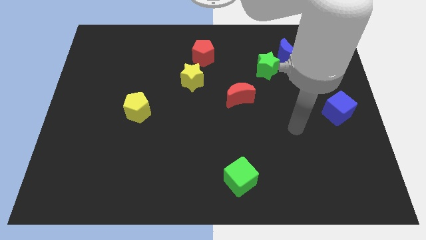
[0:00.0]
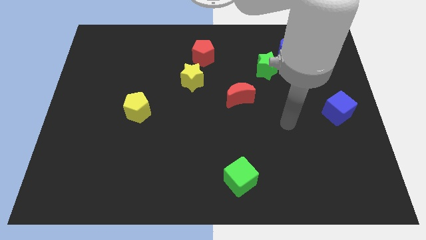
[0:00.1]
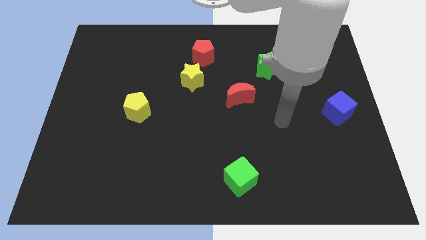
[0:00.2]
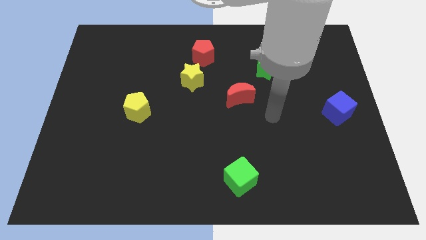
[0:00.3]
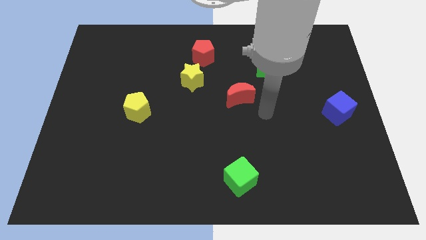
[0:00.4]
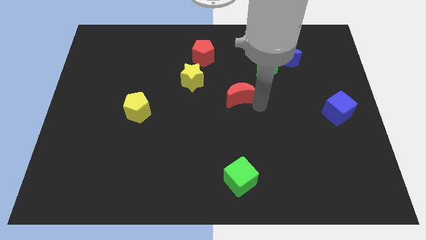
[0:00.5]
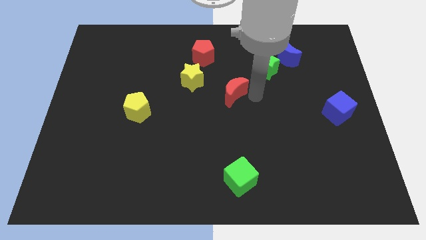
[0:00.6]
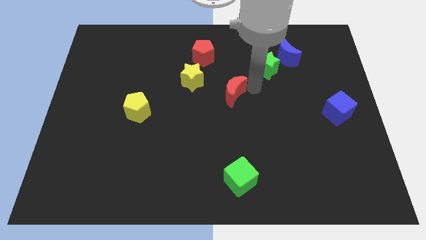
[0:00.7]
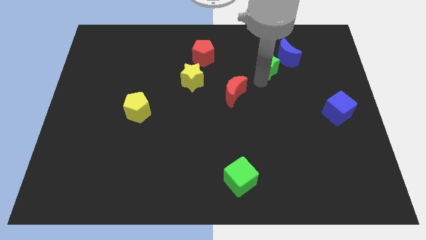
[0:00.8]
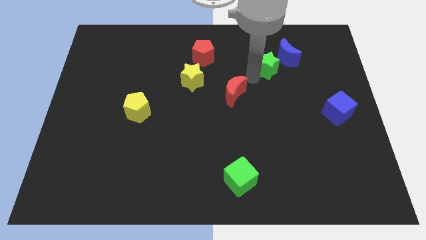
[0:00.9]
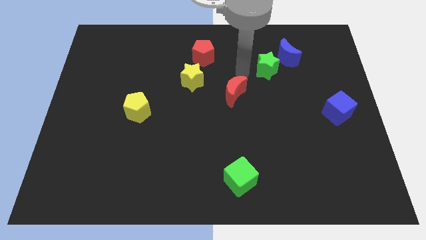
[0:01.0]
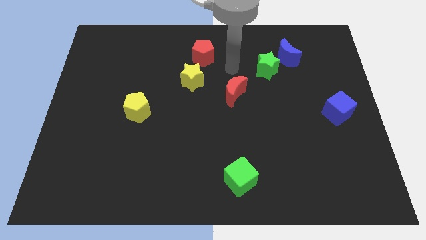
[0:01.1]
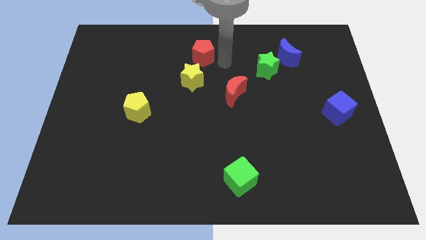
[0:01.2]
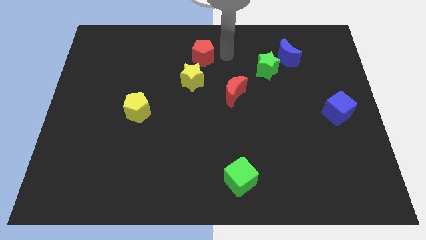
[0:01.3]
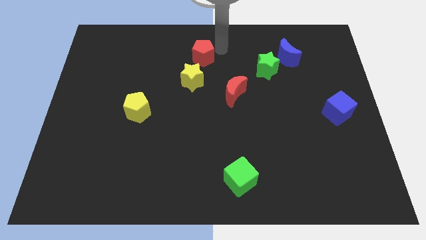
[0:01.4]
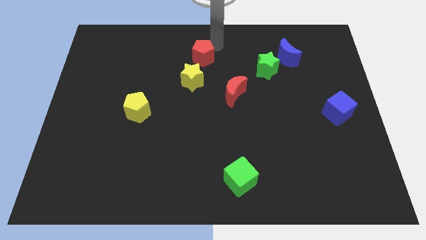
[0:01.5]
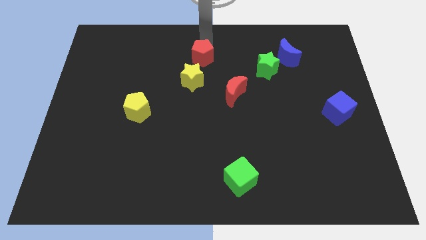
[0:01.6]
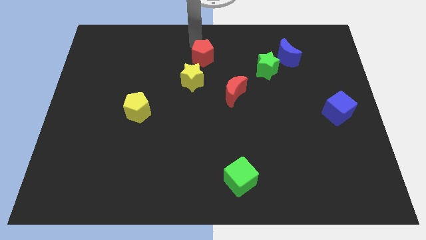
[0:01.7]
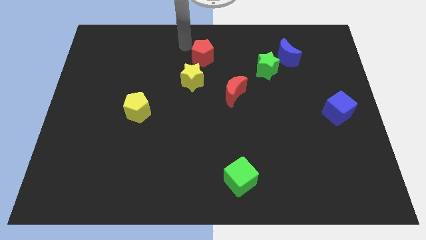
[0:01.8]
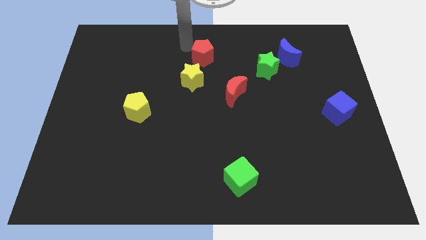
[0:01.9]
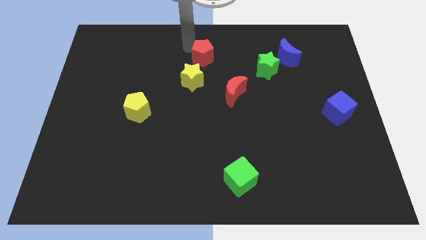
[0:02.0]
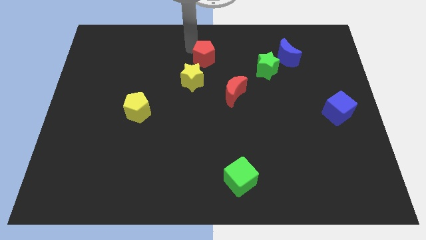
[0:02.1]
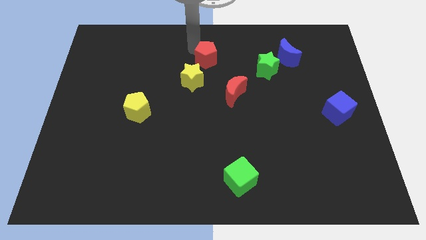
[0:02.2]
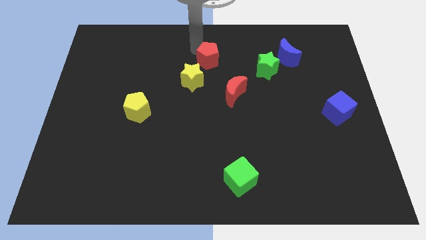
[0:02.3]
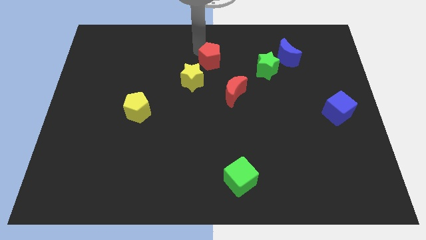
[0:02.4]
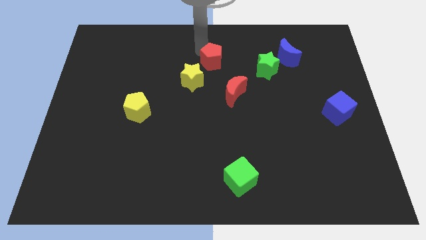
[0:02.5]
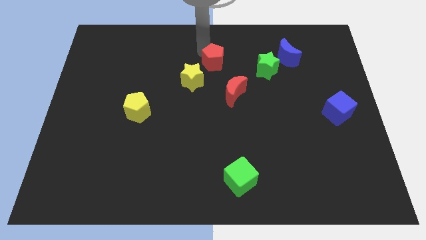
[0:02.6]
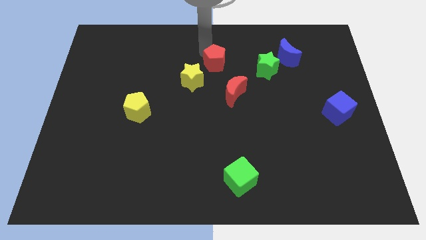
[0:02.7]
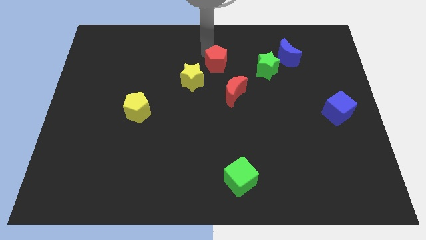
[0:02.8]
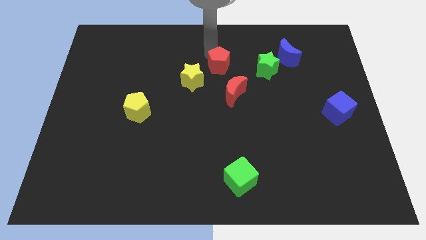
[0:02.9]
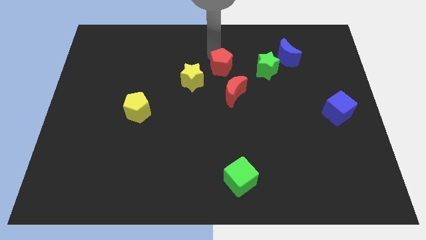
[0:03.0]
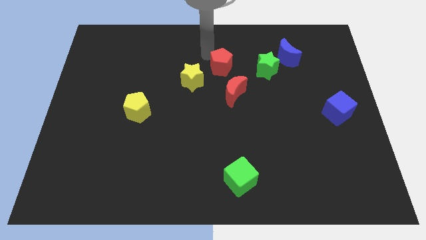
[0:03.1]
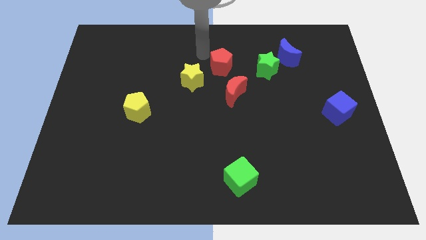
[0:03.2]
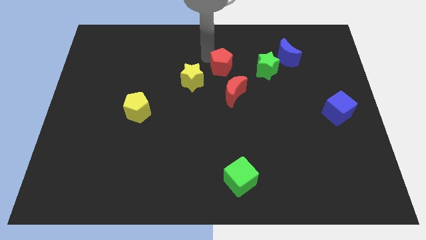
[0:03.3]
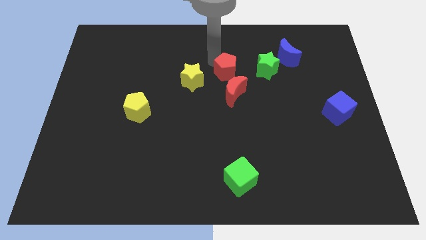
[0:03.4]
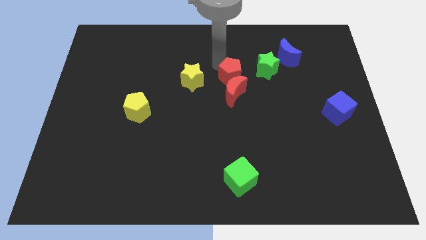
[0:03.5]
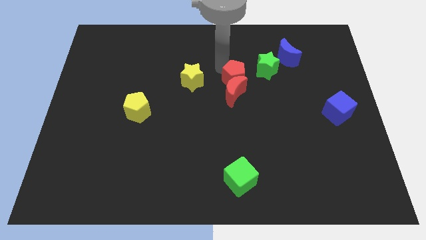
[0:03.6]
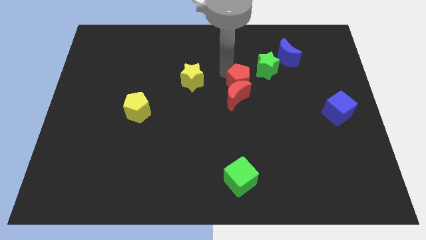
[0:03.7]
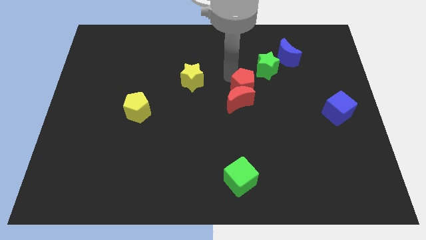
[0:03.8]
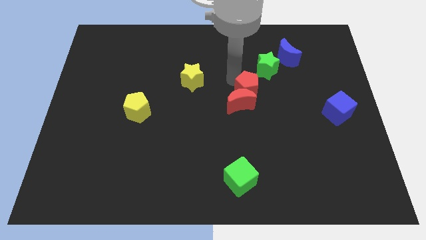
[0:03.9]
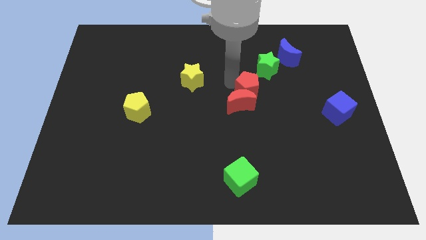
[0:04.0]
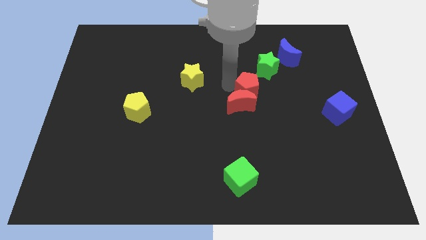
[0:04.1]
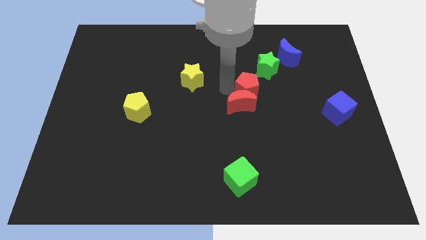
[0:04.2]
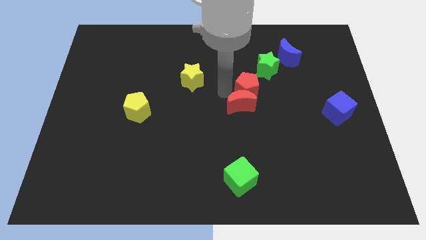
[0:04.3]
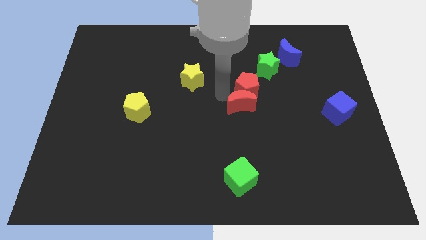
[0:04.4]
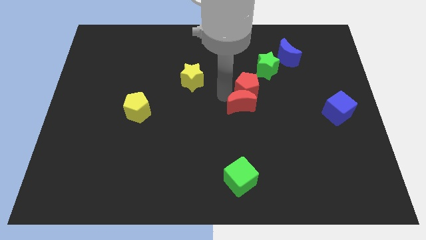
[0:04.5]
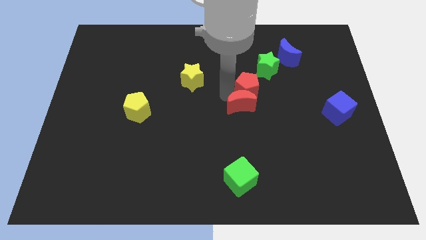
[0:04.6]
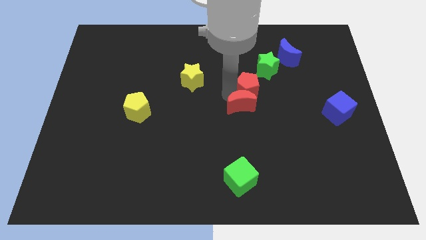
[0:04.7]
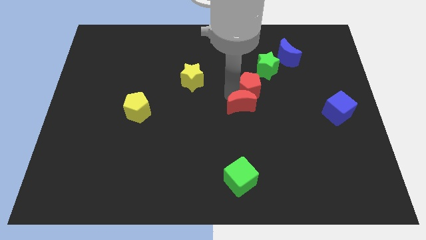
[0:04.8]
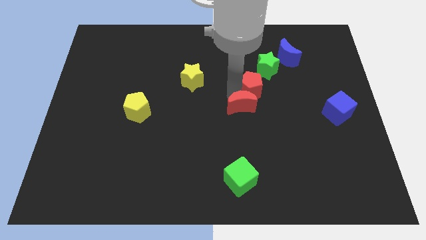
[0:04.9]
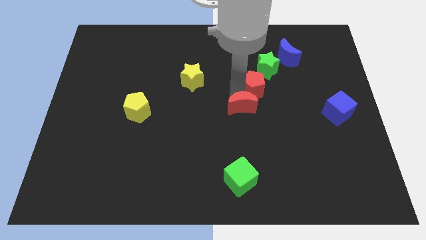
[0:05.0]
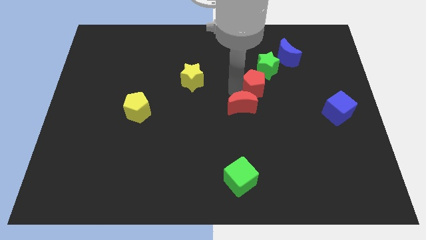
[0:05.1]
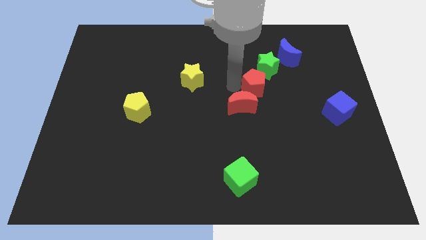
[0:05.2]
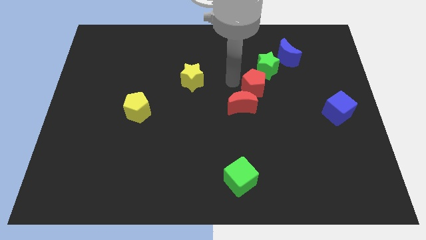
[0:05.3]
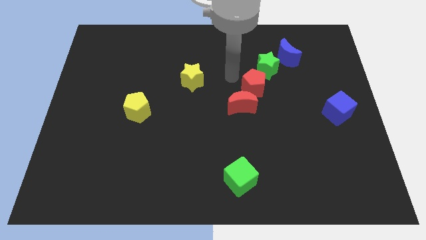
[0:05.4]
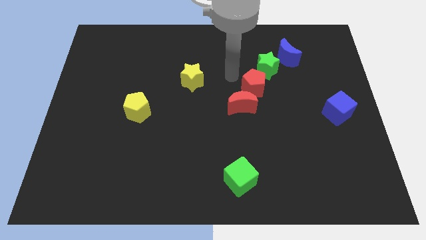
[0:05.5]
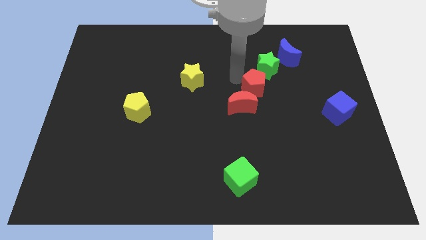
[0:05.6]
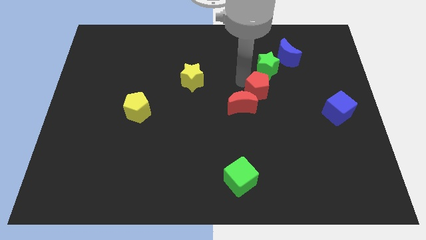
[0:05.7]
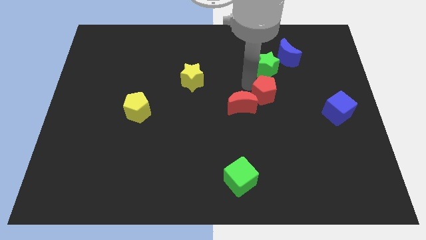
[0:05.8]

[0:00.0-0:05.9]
slide the red pentagon down and right

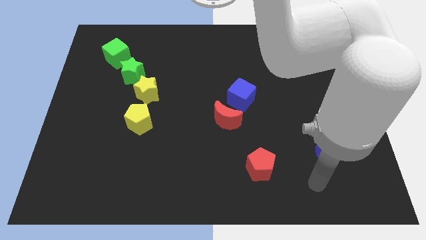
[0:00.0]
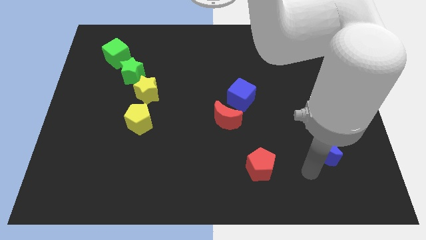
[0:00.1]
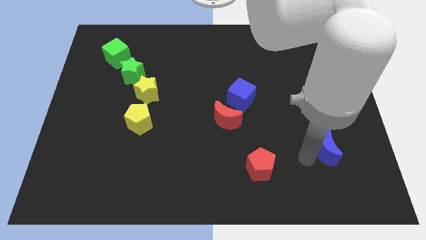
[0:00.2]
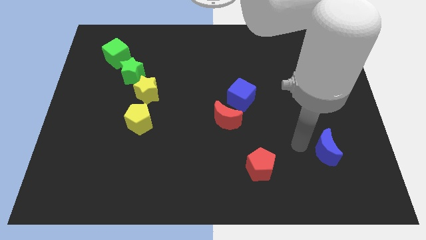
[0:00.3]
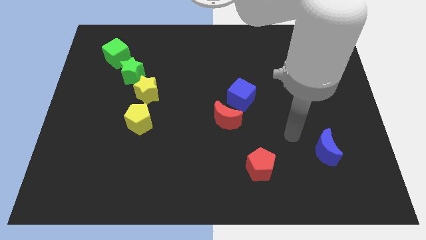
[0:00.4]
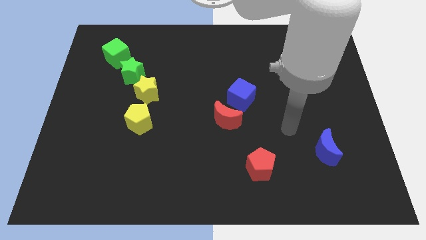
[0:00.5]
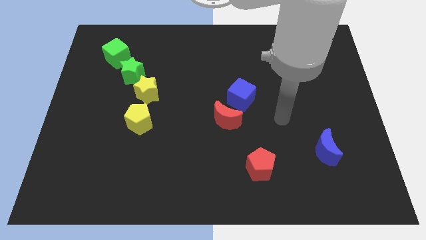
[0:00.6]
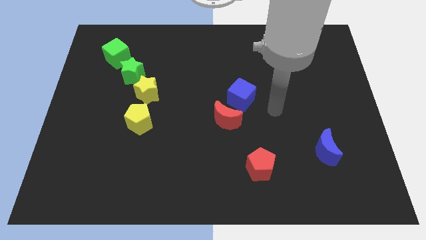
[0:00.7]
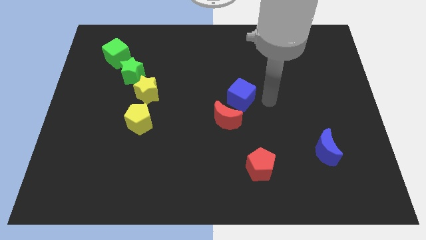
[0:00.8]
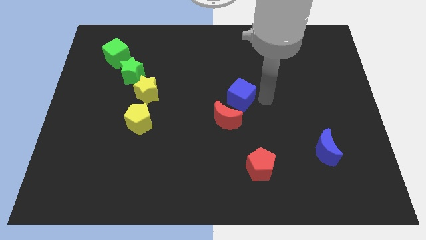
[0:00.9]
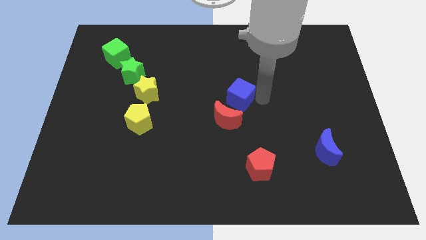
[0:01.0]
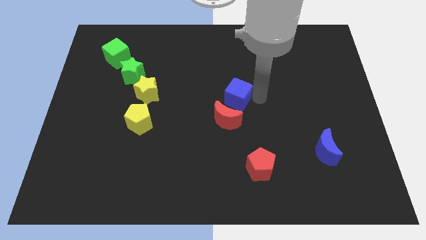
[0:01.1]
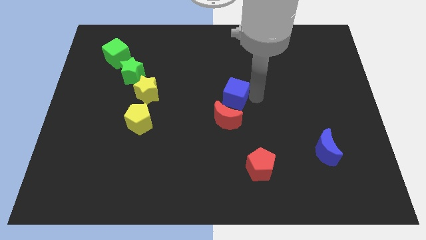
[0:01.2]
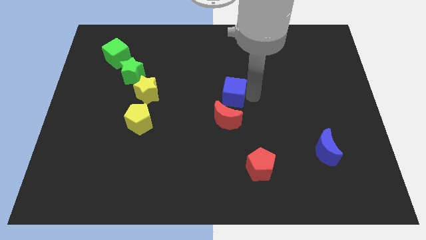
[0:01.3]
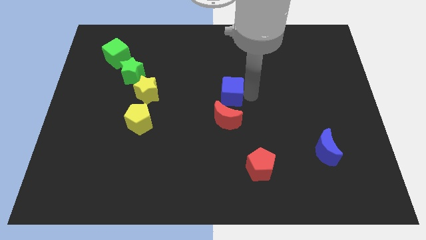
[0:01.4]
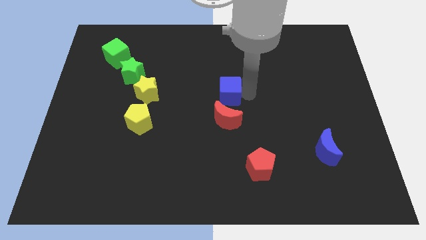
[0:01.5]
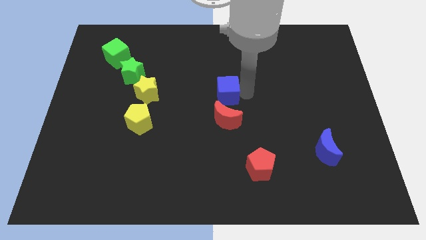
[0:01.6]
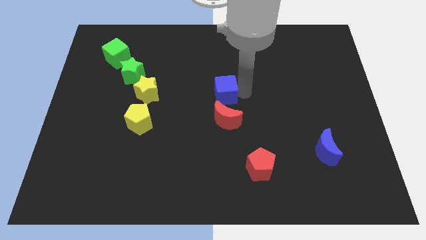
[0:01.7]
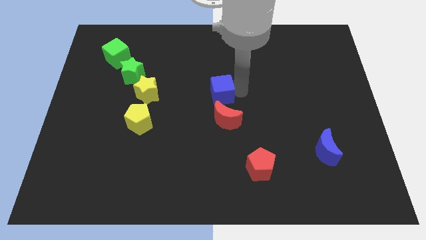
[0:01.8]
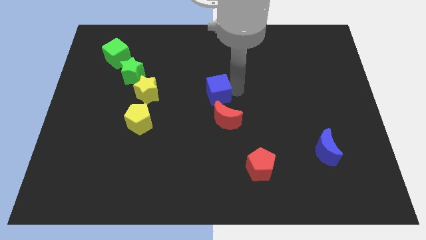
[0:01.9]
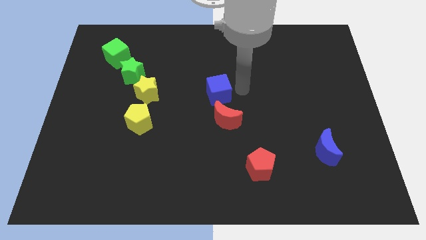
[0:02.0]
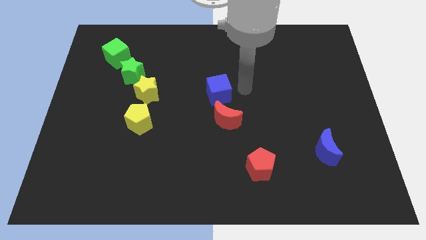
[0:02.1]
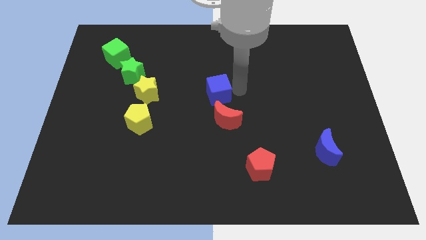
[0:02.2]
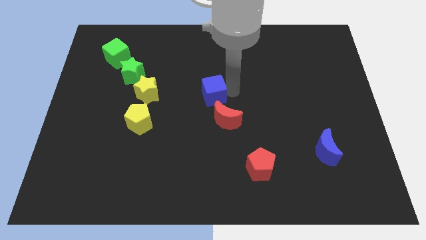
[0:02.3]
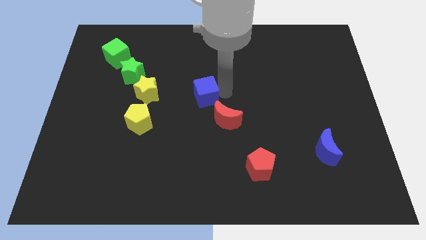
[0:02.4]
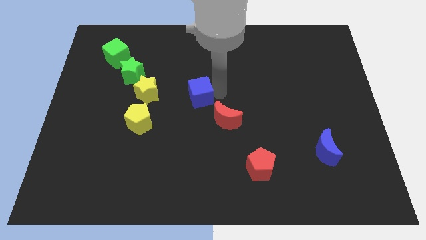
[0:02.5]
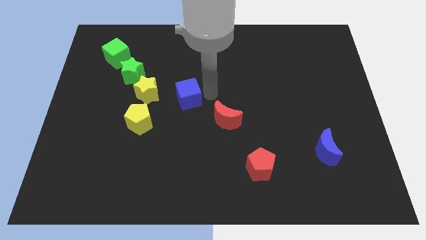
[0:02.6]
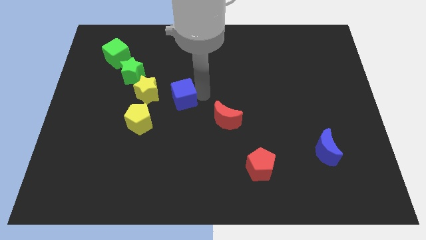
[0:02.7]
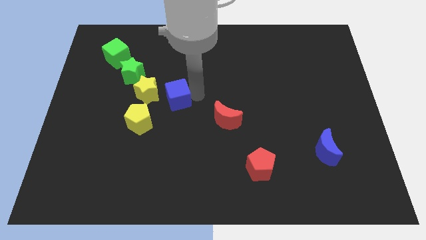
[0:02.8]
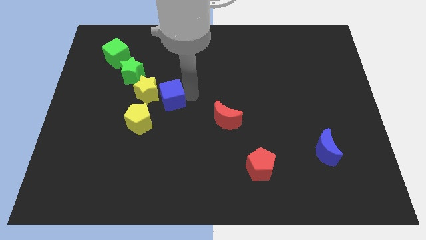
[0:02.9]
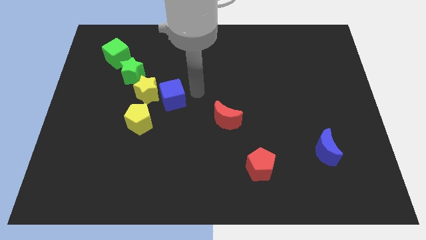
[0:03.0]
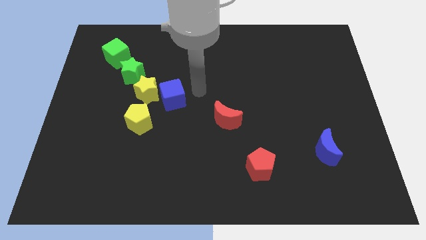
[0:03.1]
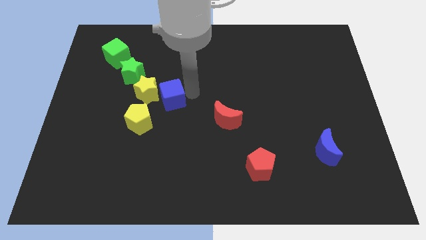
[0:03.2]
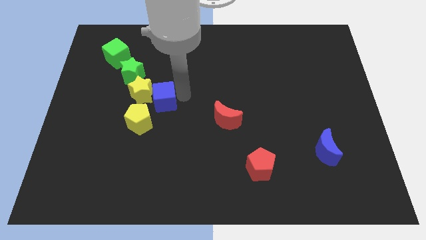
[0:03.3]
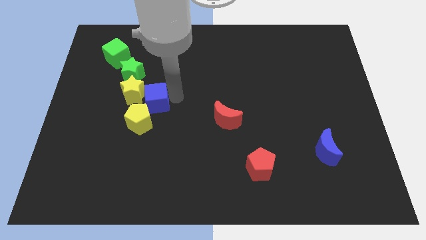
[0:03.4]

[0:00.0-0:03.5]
slide the blue cube to the left
